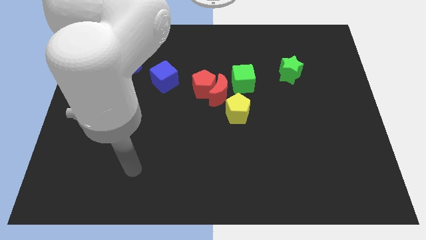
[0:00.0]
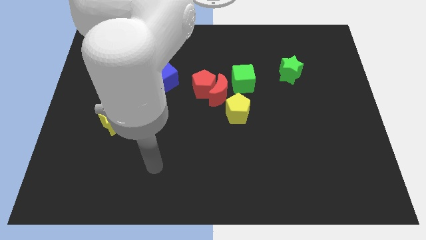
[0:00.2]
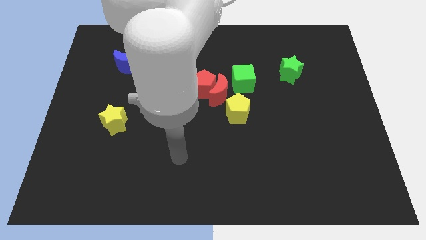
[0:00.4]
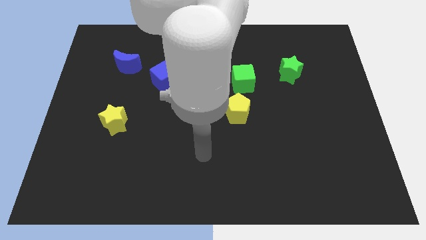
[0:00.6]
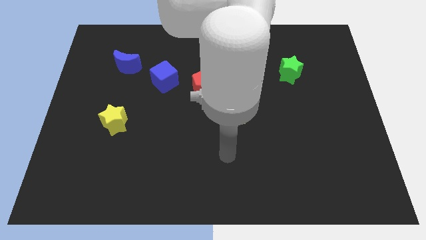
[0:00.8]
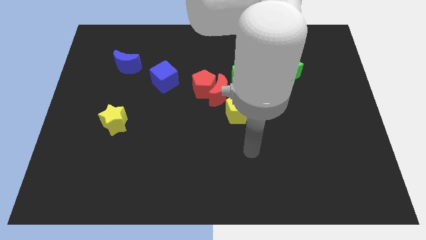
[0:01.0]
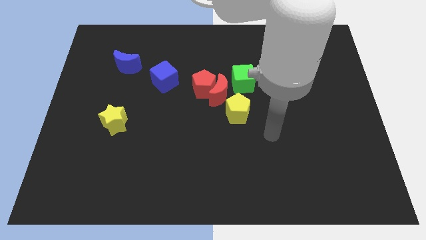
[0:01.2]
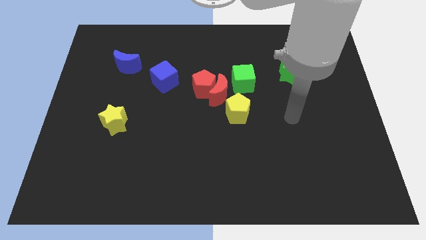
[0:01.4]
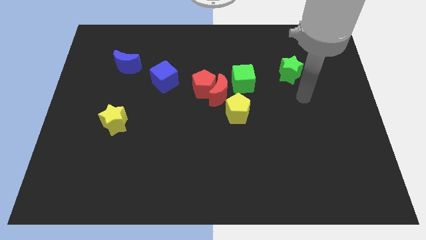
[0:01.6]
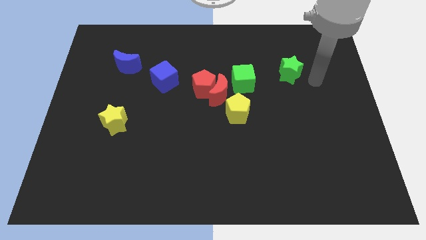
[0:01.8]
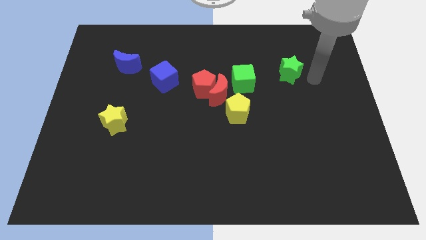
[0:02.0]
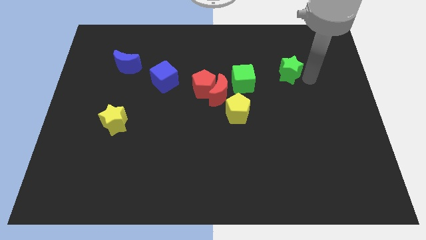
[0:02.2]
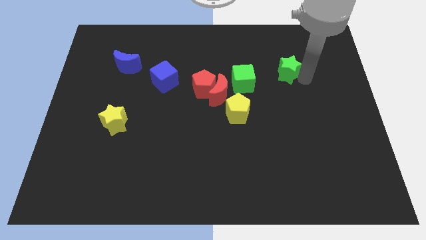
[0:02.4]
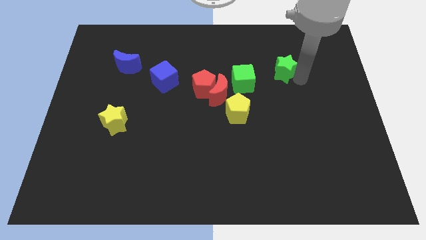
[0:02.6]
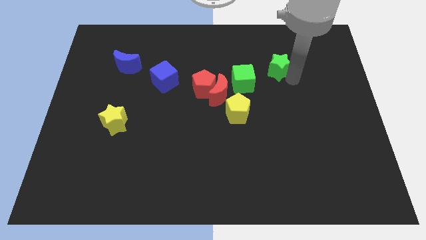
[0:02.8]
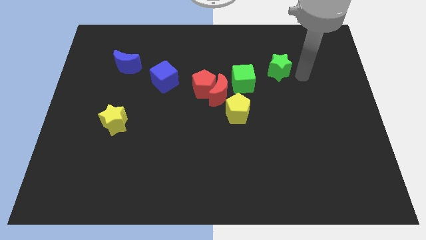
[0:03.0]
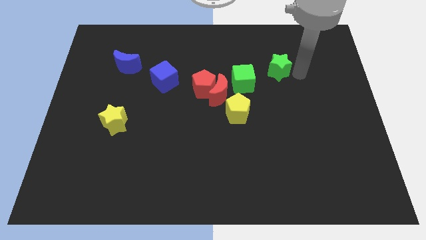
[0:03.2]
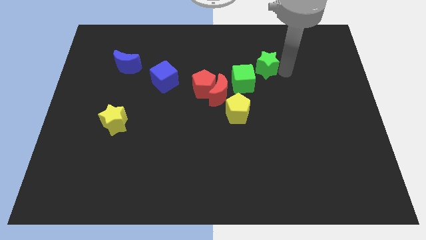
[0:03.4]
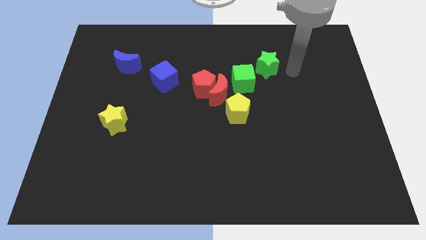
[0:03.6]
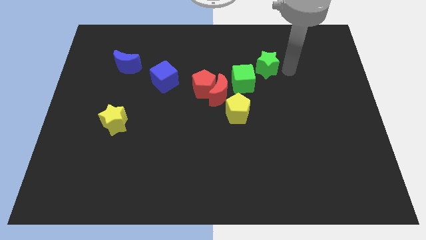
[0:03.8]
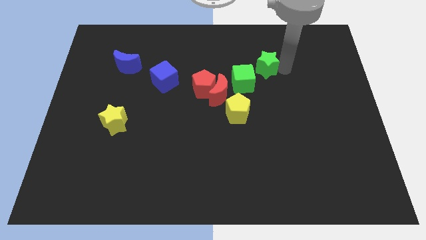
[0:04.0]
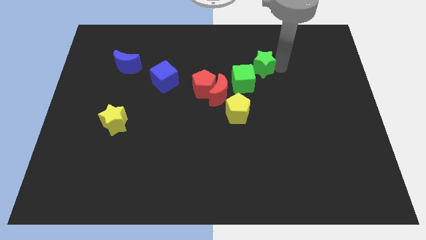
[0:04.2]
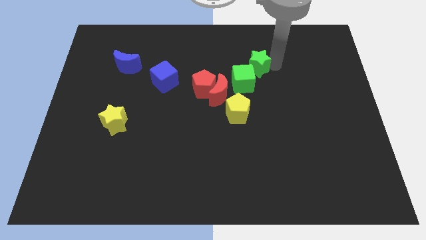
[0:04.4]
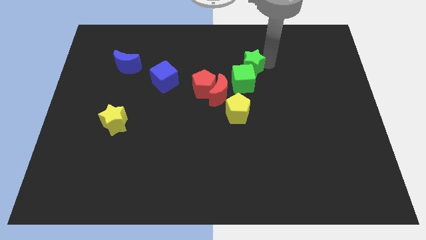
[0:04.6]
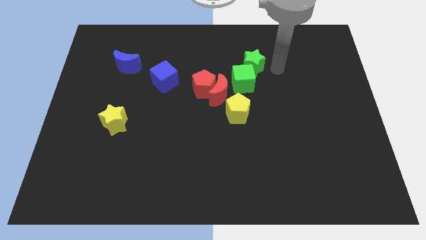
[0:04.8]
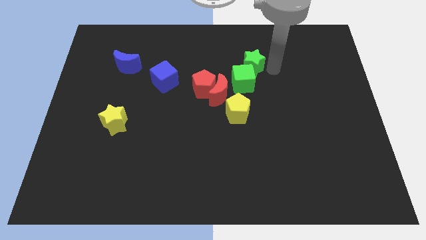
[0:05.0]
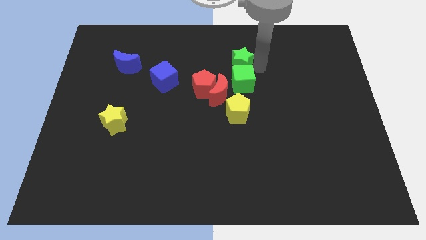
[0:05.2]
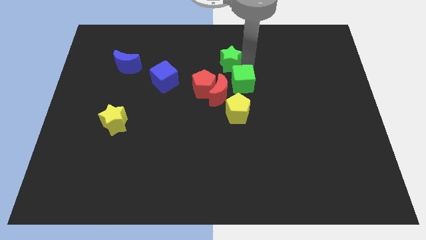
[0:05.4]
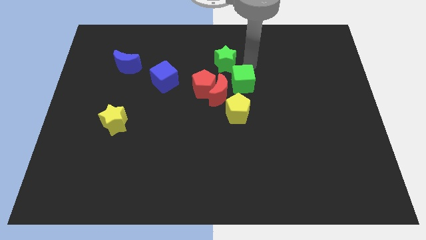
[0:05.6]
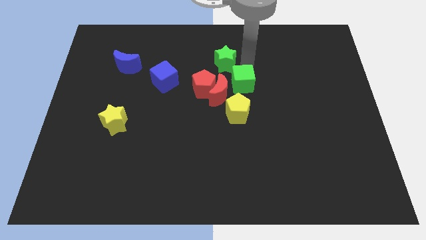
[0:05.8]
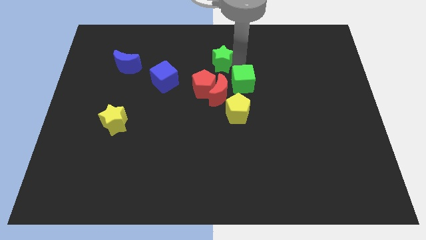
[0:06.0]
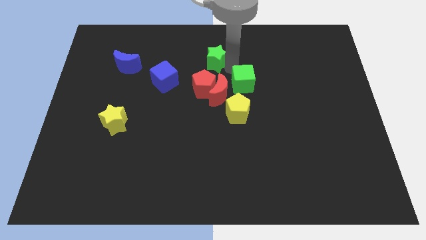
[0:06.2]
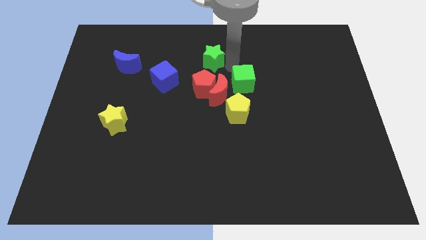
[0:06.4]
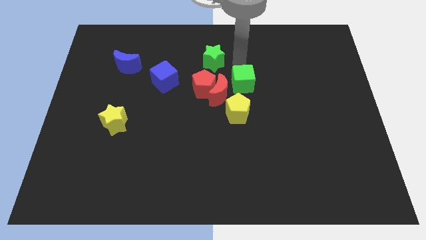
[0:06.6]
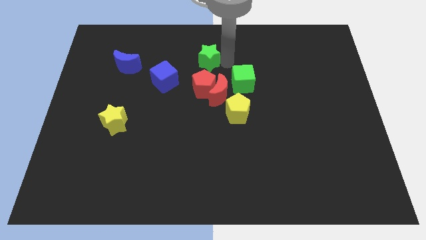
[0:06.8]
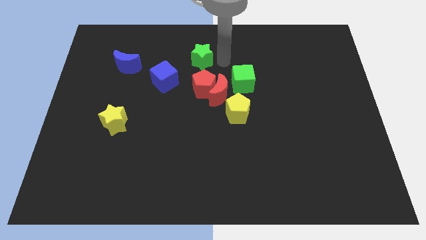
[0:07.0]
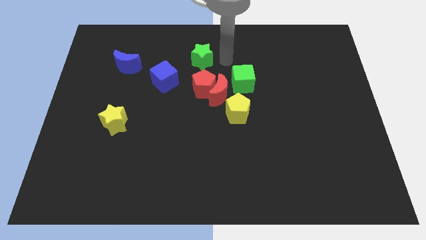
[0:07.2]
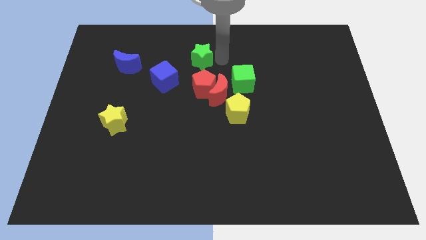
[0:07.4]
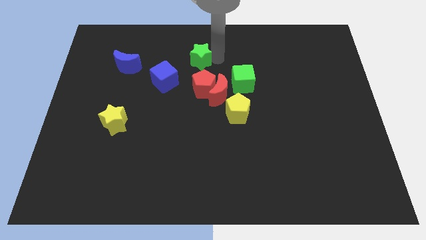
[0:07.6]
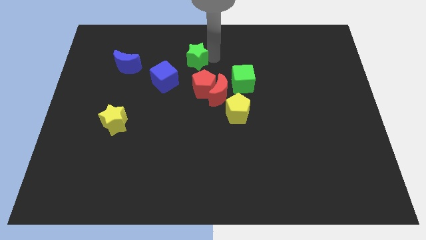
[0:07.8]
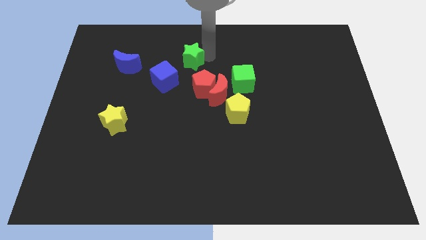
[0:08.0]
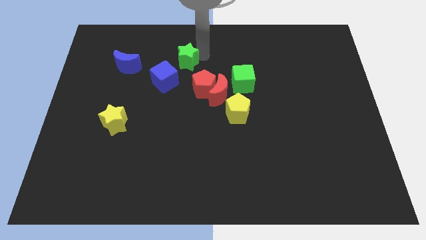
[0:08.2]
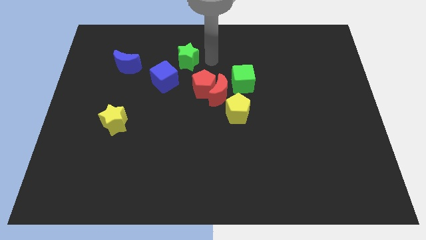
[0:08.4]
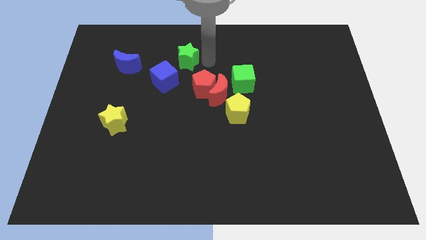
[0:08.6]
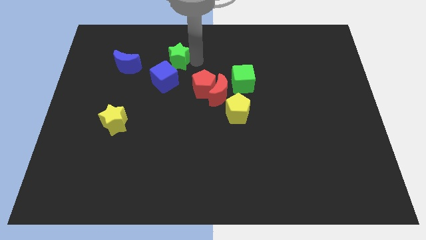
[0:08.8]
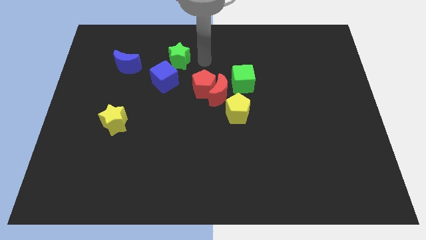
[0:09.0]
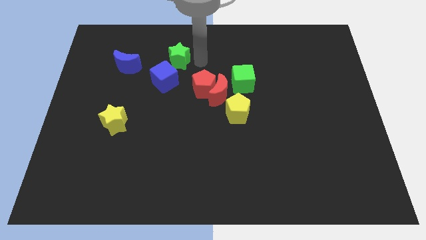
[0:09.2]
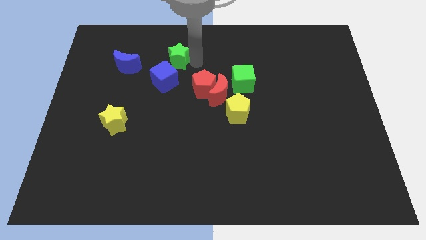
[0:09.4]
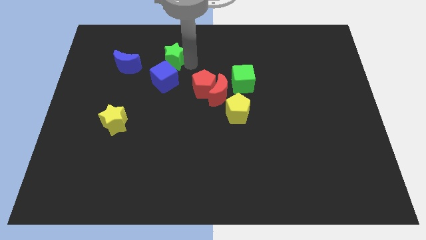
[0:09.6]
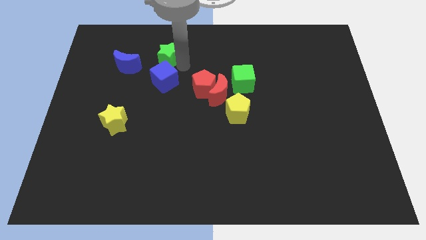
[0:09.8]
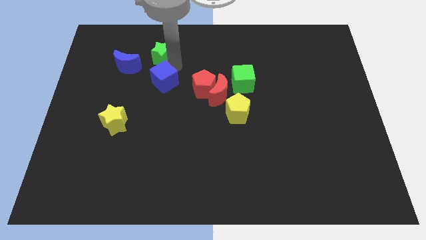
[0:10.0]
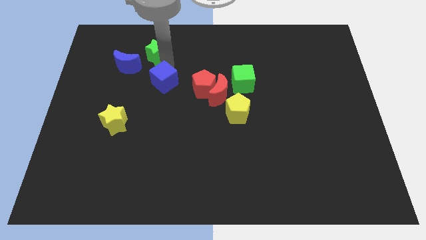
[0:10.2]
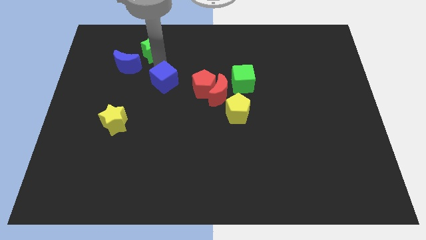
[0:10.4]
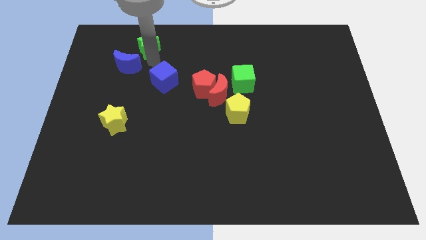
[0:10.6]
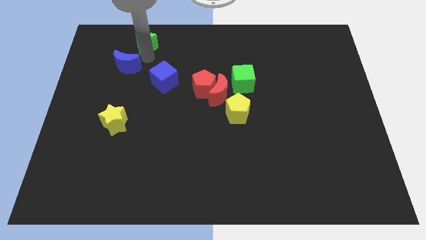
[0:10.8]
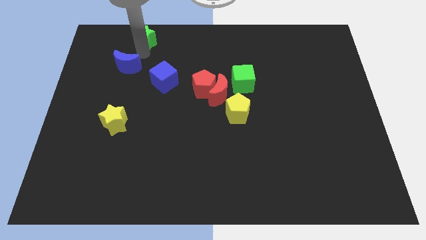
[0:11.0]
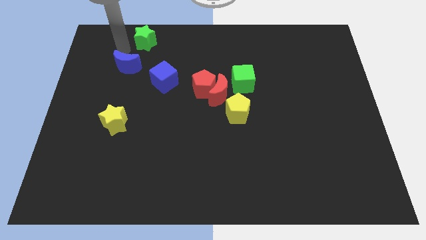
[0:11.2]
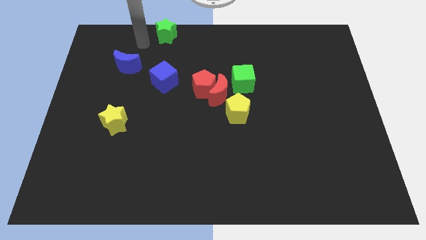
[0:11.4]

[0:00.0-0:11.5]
push the green star to the top side

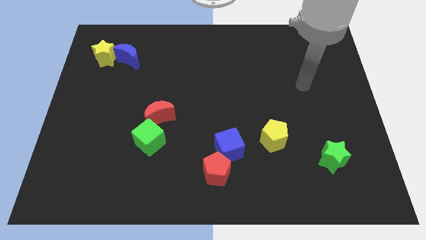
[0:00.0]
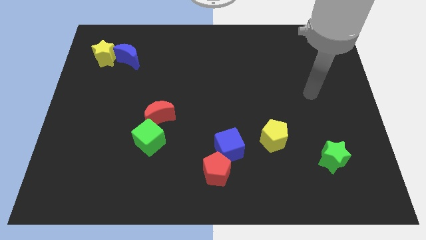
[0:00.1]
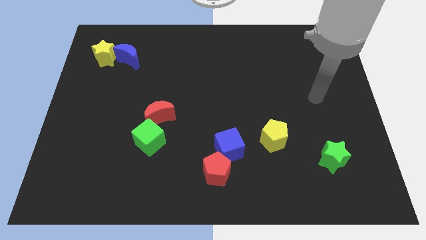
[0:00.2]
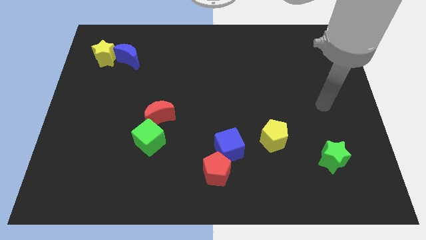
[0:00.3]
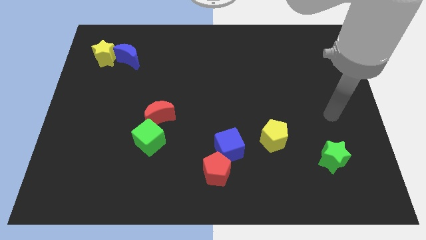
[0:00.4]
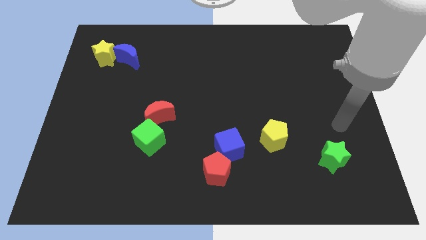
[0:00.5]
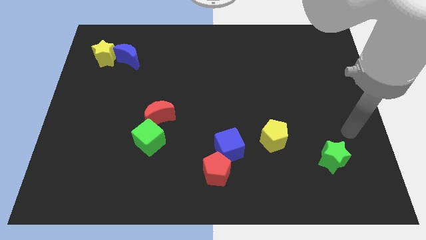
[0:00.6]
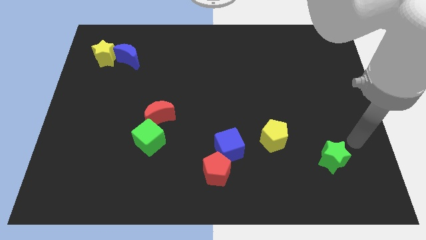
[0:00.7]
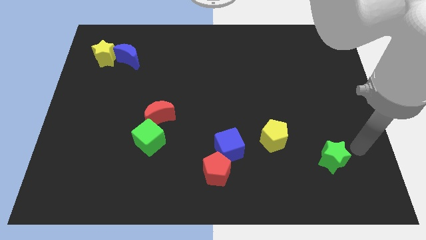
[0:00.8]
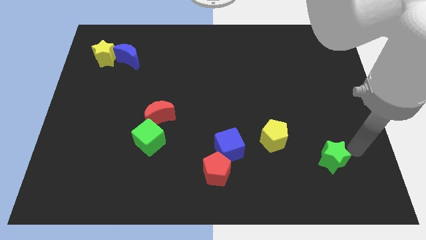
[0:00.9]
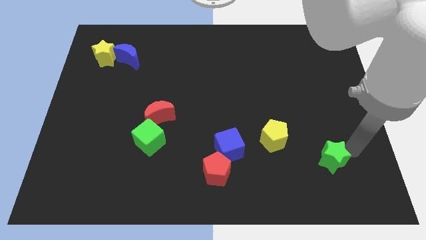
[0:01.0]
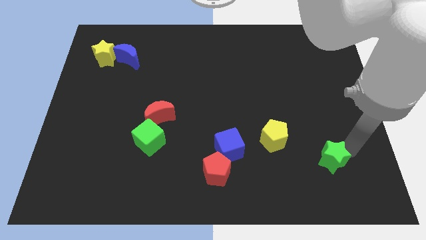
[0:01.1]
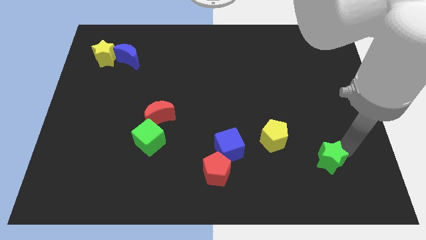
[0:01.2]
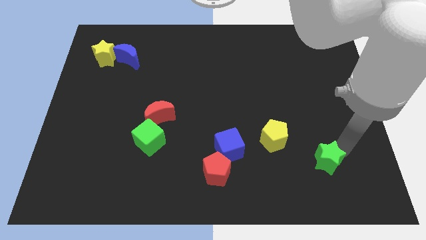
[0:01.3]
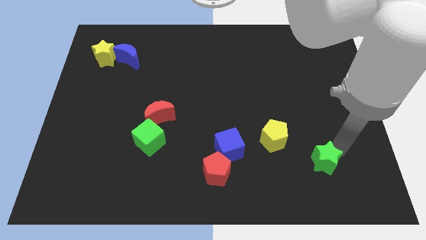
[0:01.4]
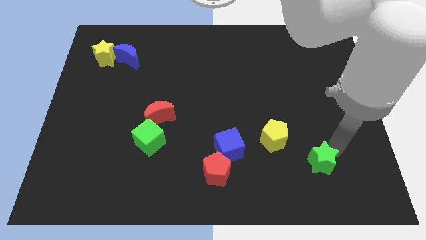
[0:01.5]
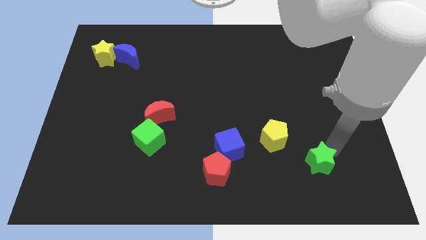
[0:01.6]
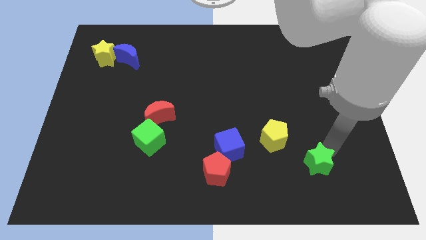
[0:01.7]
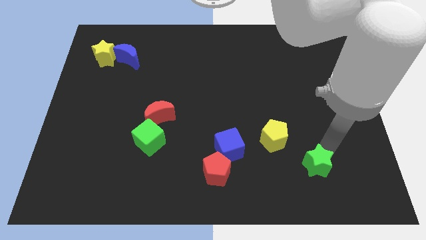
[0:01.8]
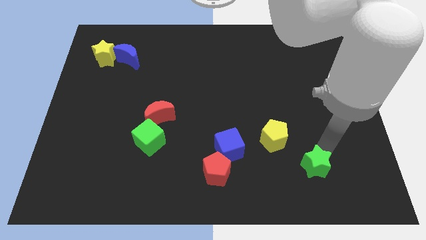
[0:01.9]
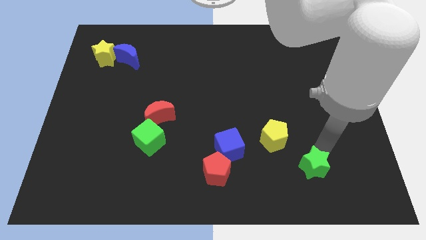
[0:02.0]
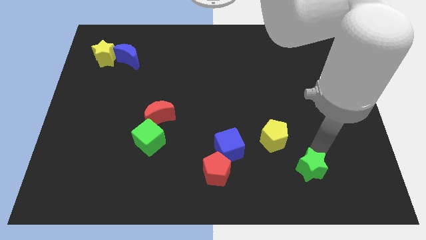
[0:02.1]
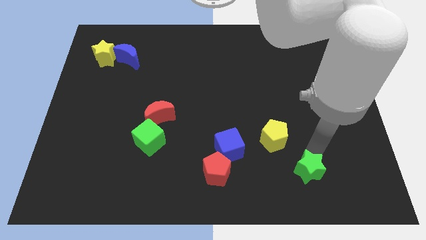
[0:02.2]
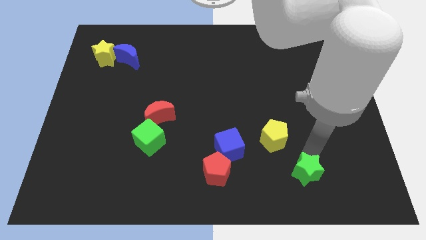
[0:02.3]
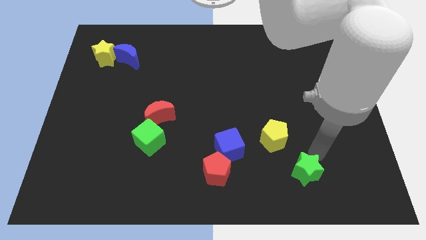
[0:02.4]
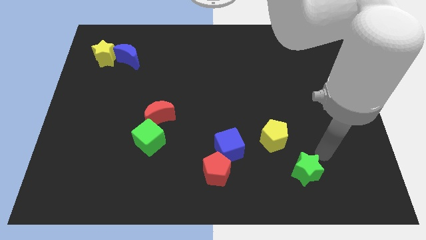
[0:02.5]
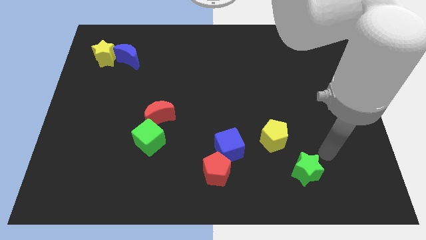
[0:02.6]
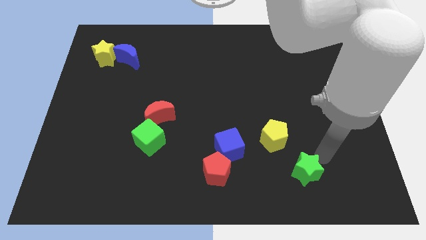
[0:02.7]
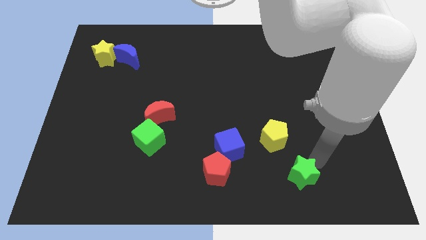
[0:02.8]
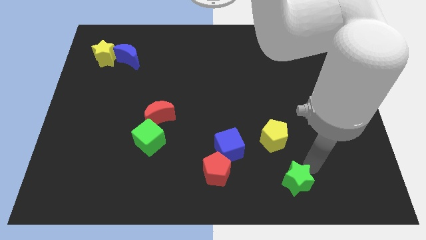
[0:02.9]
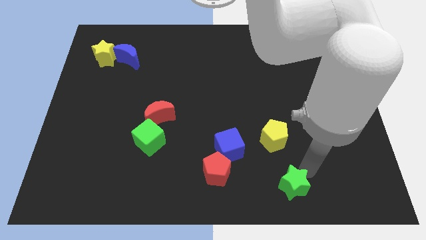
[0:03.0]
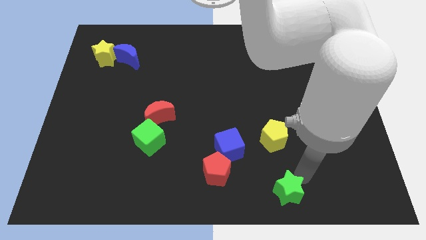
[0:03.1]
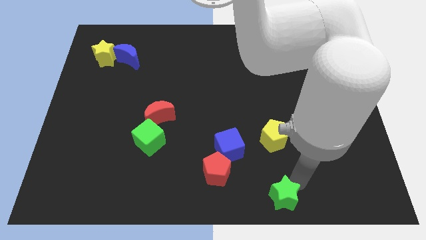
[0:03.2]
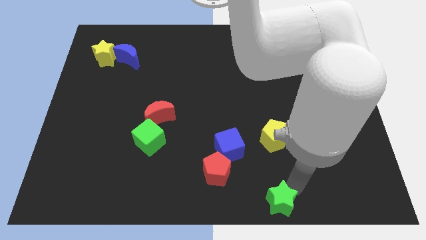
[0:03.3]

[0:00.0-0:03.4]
put the green star to the bottom
